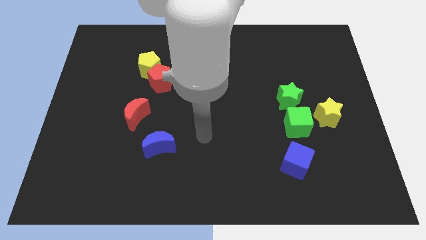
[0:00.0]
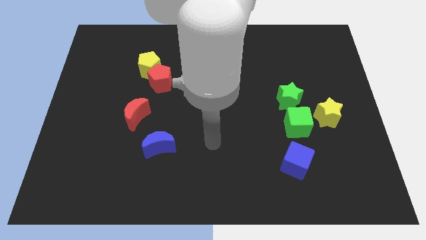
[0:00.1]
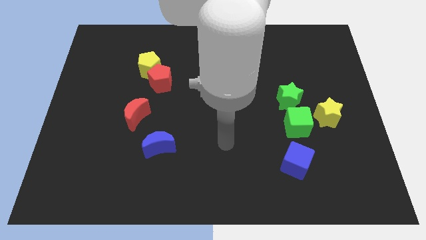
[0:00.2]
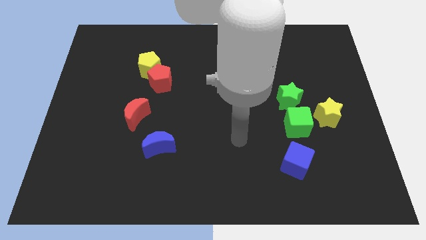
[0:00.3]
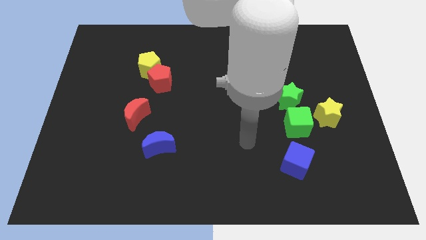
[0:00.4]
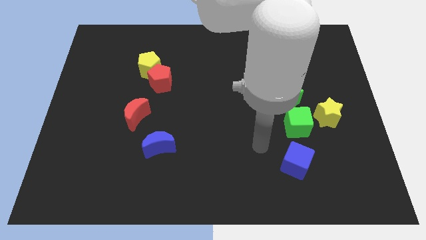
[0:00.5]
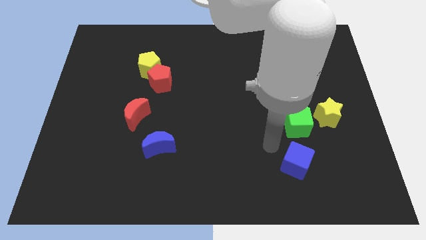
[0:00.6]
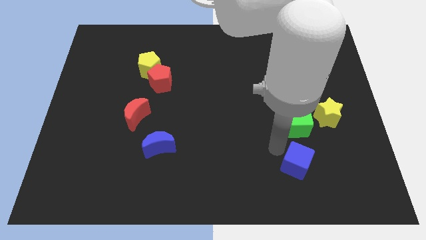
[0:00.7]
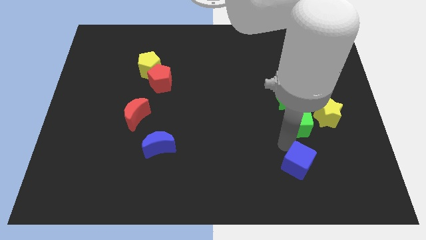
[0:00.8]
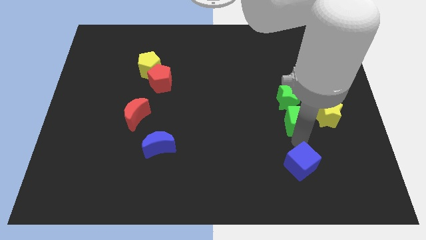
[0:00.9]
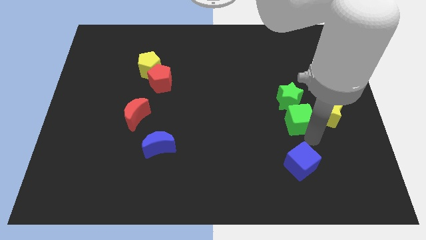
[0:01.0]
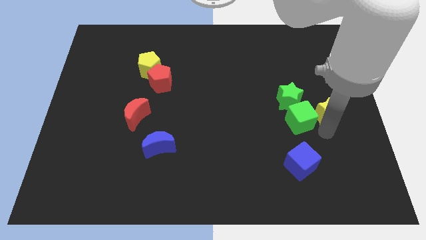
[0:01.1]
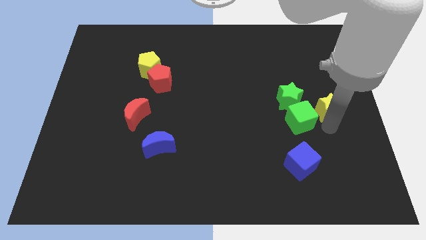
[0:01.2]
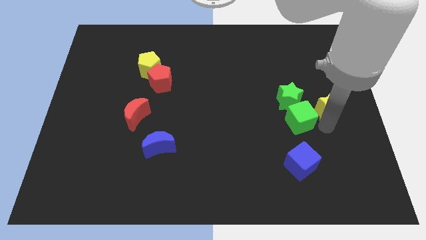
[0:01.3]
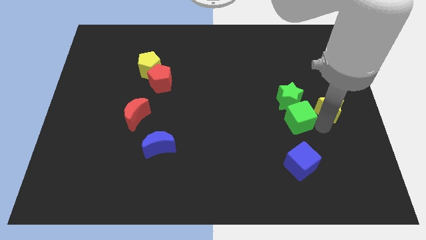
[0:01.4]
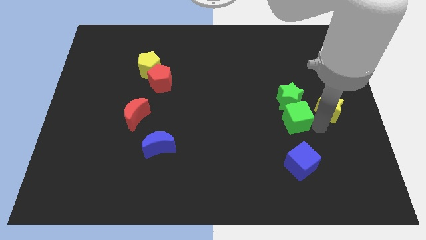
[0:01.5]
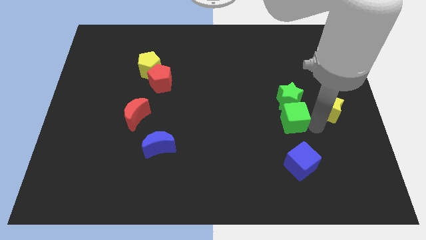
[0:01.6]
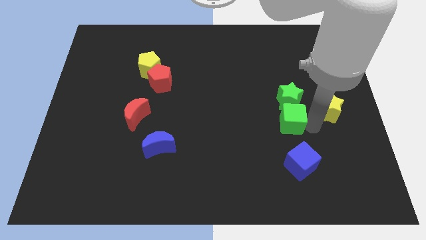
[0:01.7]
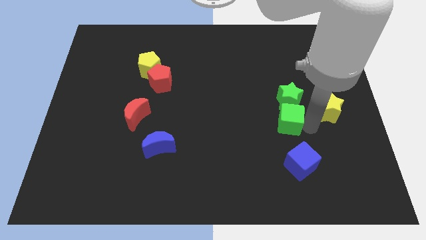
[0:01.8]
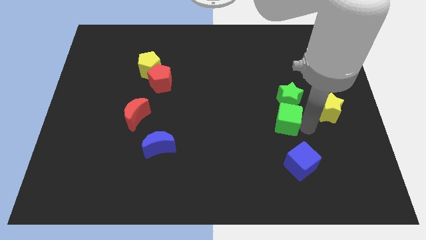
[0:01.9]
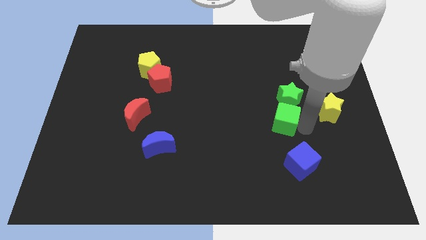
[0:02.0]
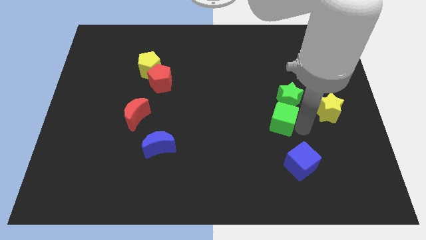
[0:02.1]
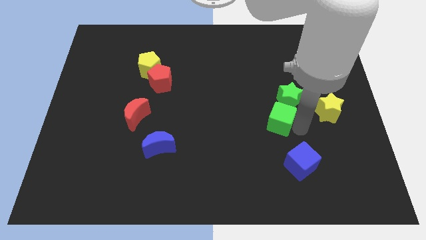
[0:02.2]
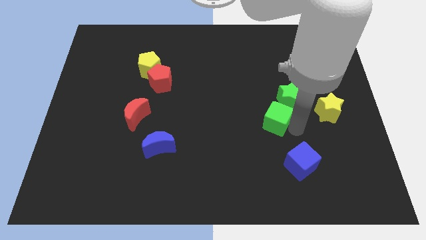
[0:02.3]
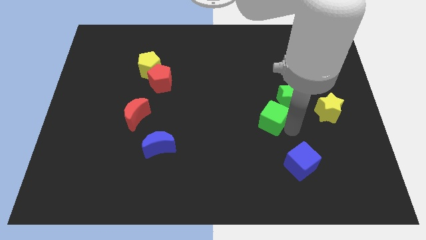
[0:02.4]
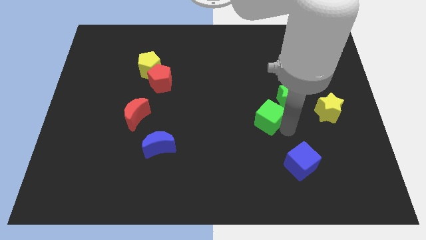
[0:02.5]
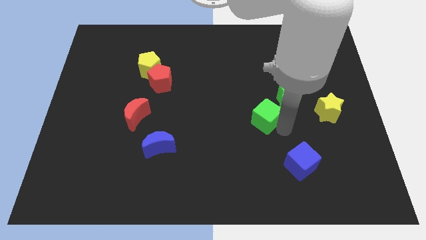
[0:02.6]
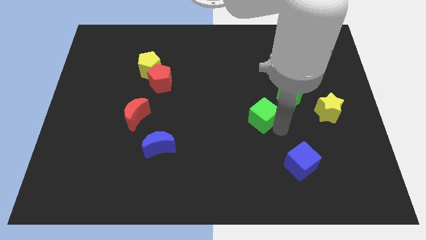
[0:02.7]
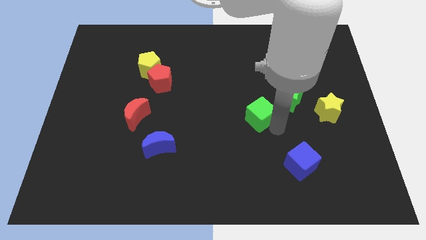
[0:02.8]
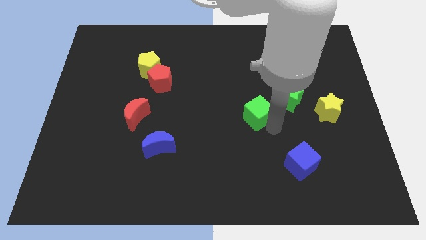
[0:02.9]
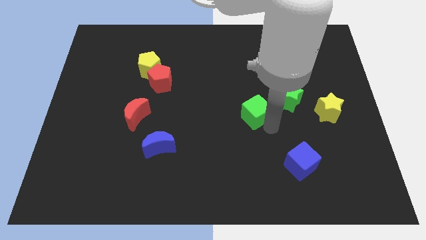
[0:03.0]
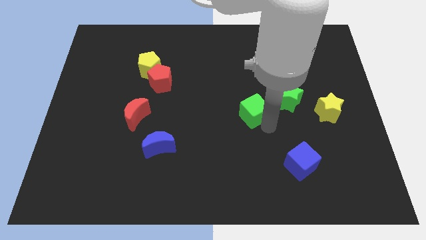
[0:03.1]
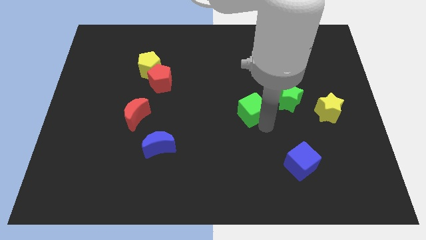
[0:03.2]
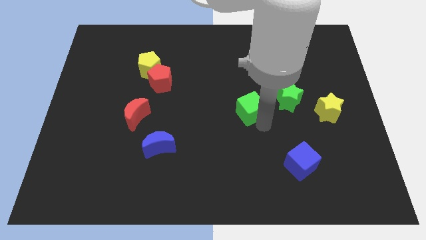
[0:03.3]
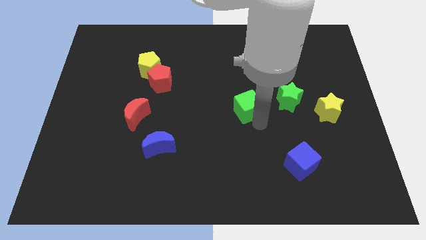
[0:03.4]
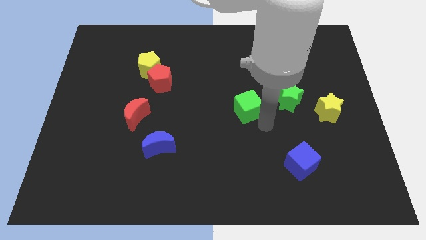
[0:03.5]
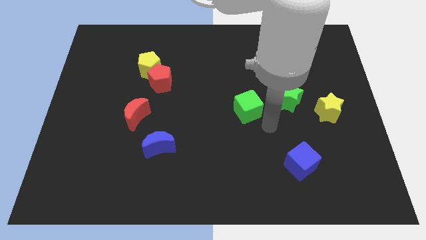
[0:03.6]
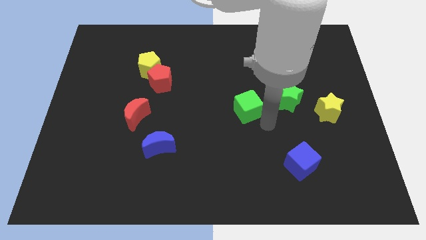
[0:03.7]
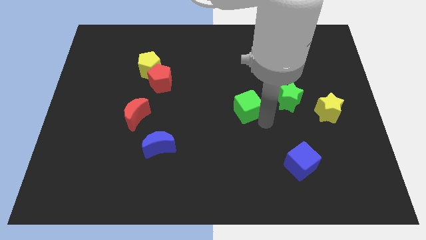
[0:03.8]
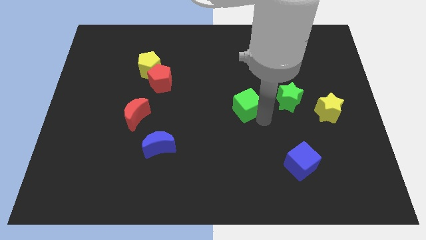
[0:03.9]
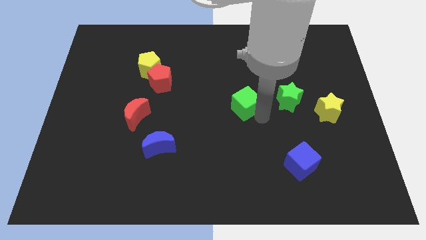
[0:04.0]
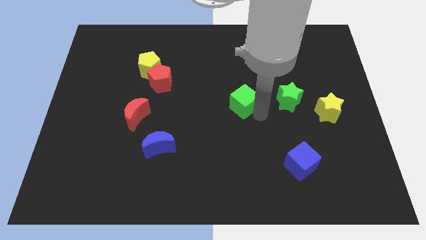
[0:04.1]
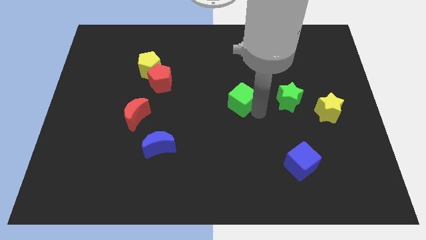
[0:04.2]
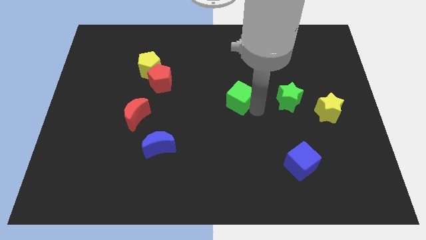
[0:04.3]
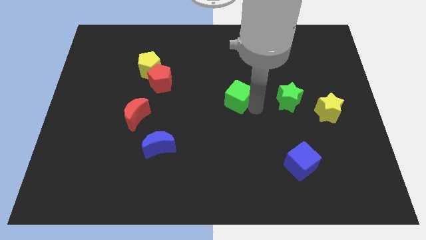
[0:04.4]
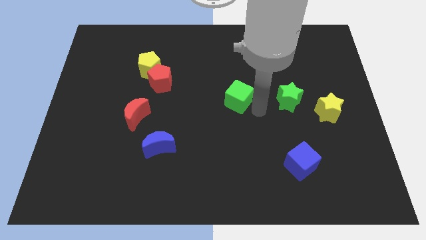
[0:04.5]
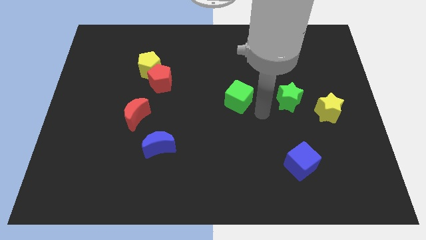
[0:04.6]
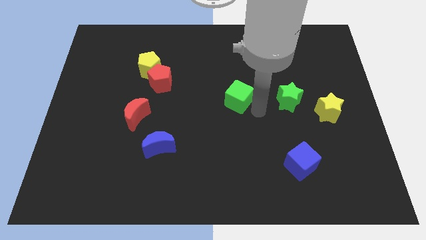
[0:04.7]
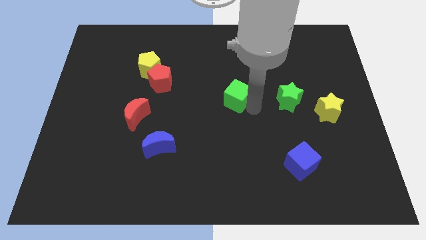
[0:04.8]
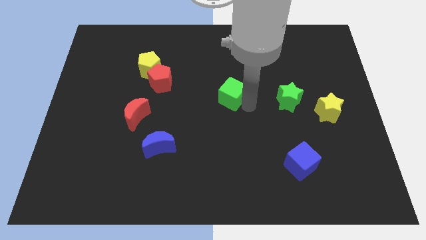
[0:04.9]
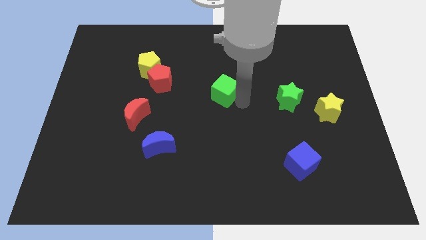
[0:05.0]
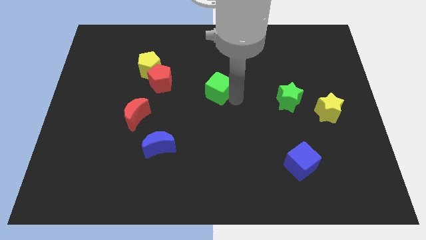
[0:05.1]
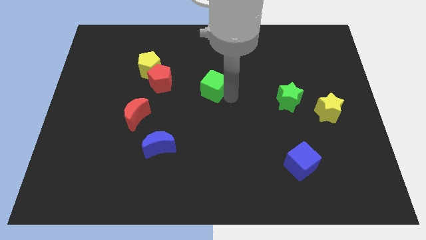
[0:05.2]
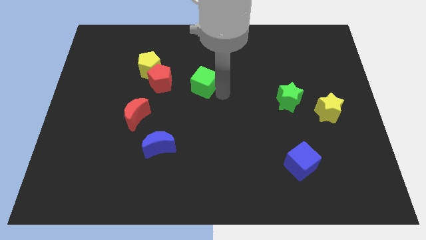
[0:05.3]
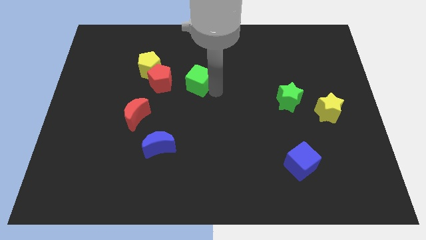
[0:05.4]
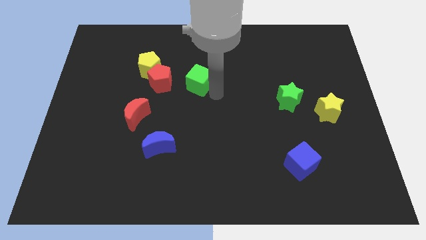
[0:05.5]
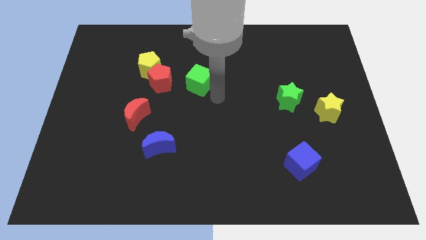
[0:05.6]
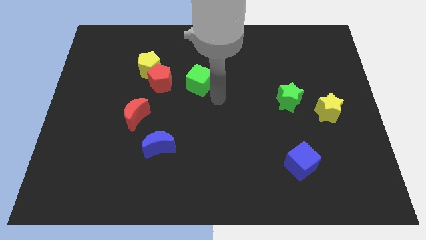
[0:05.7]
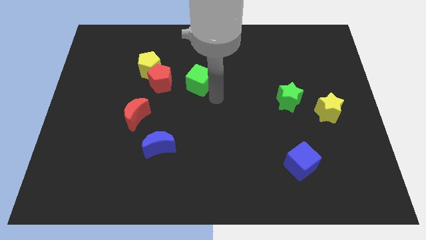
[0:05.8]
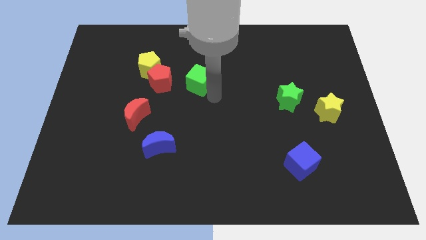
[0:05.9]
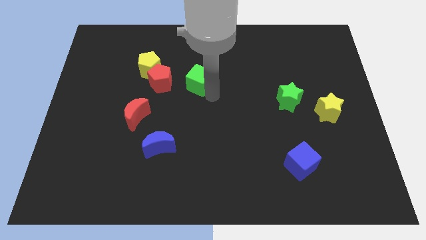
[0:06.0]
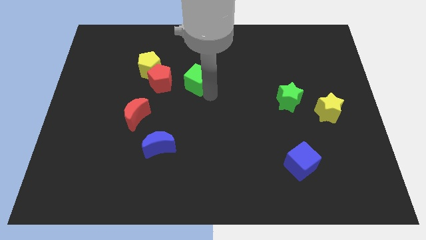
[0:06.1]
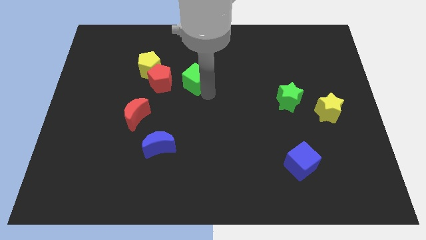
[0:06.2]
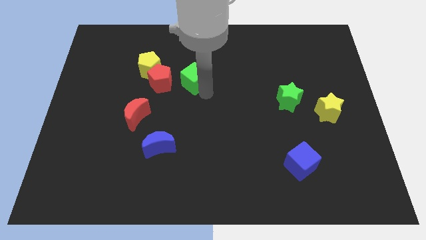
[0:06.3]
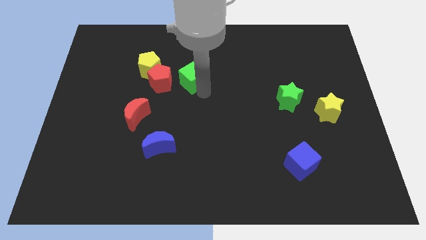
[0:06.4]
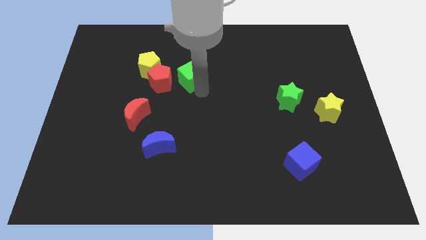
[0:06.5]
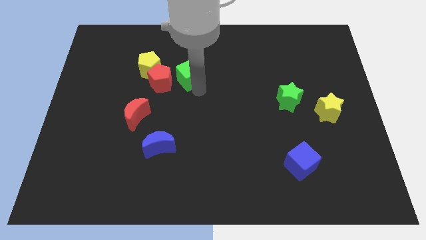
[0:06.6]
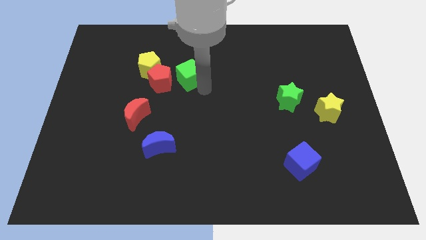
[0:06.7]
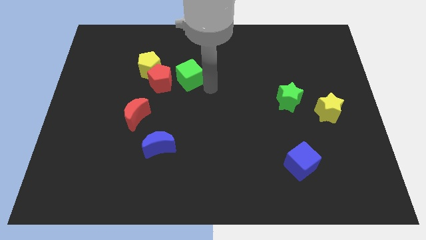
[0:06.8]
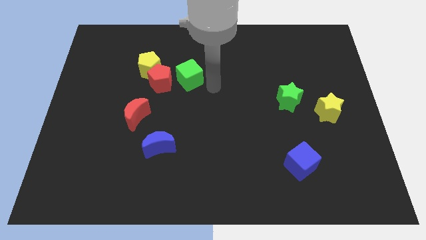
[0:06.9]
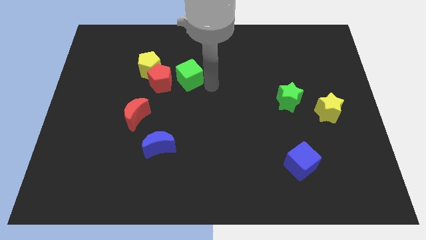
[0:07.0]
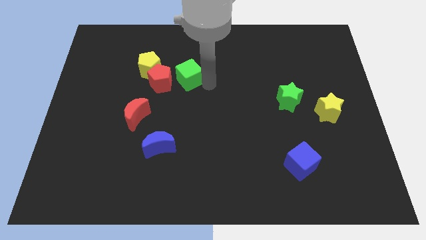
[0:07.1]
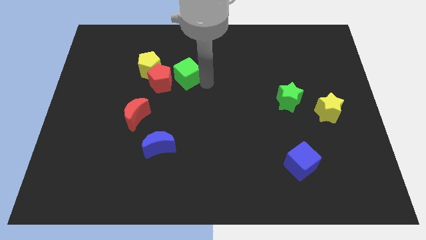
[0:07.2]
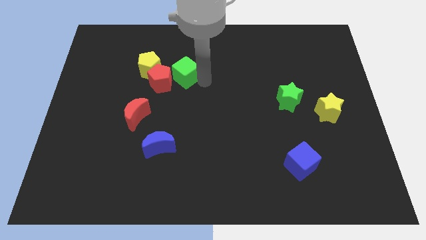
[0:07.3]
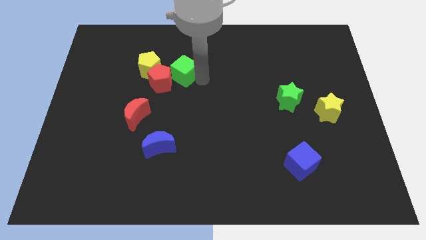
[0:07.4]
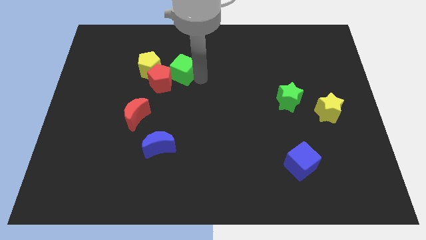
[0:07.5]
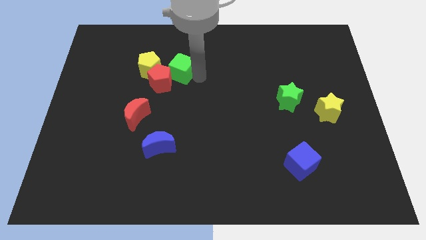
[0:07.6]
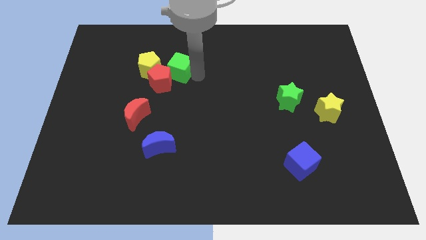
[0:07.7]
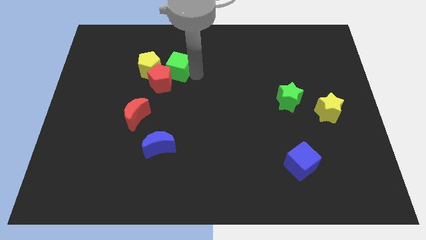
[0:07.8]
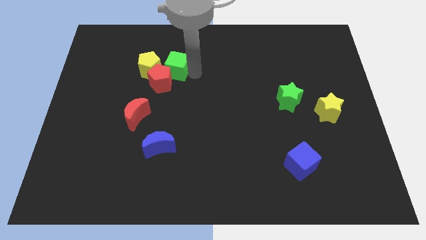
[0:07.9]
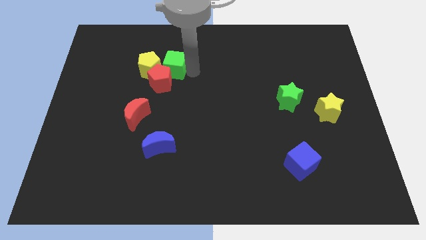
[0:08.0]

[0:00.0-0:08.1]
move the green cube close to the yellow pentagon
